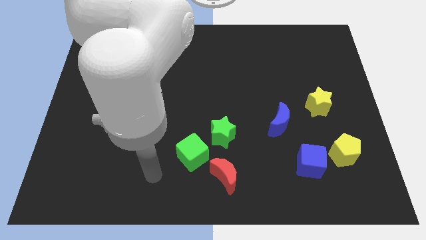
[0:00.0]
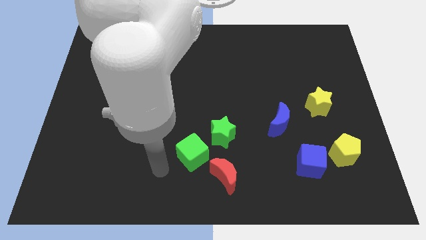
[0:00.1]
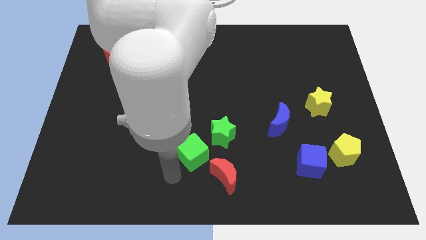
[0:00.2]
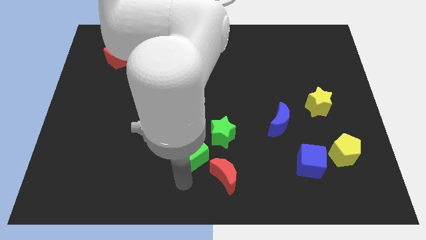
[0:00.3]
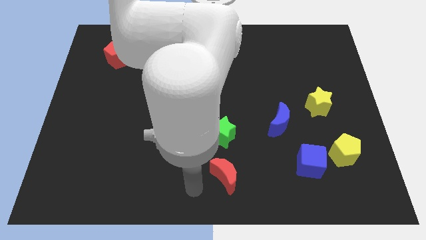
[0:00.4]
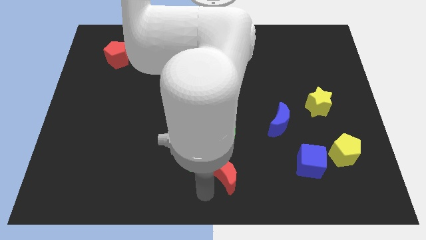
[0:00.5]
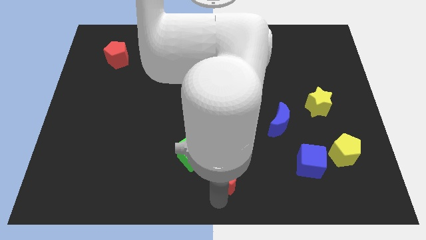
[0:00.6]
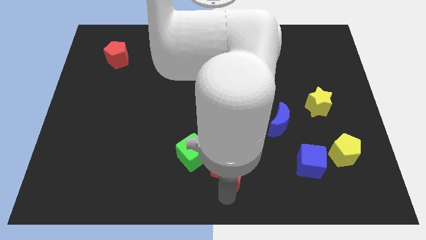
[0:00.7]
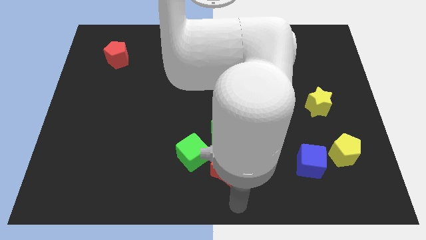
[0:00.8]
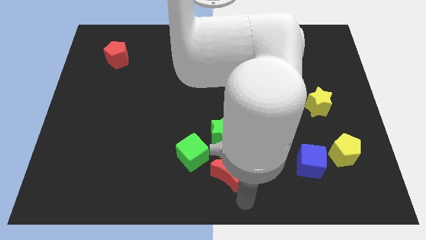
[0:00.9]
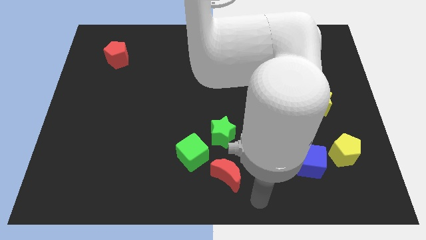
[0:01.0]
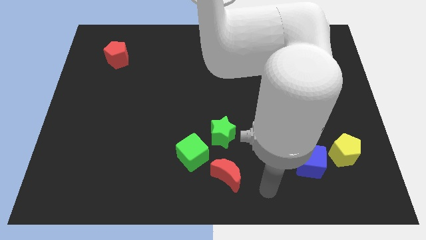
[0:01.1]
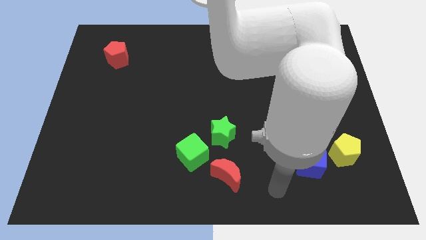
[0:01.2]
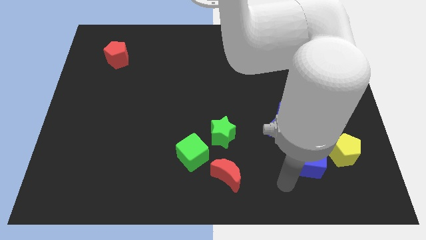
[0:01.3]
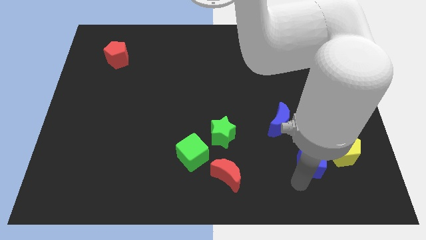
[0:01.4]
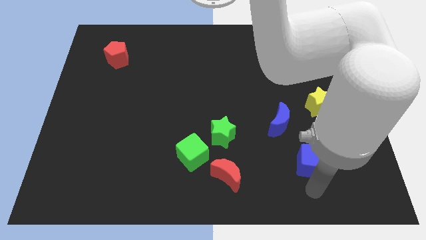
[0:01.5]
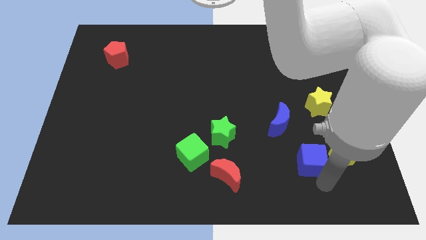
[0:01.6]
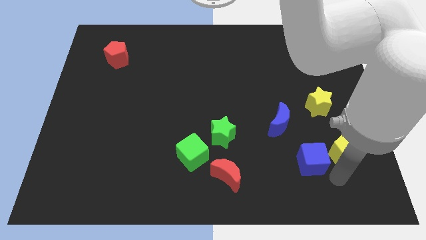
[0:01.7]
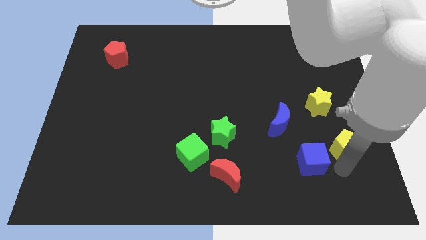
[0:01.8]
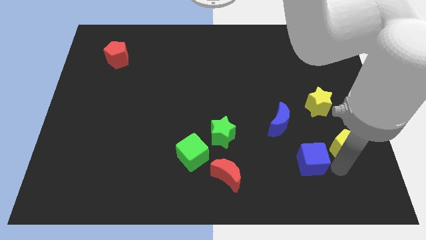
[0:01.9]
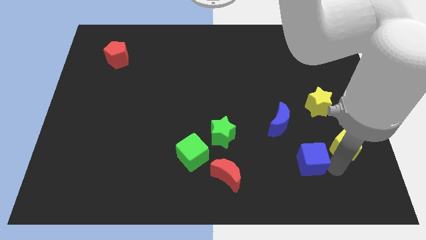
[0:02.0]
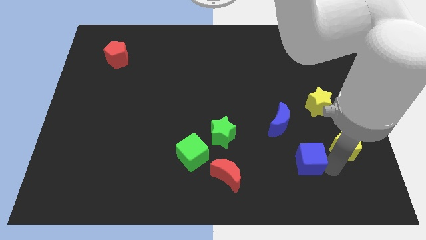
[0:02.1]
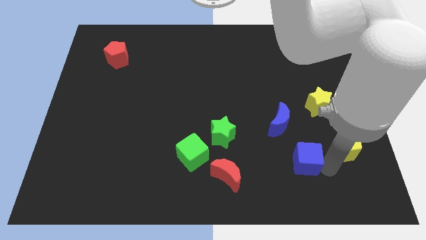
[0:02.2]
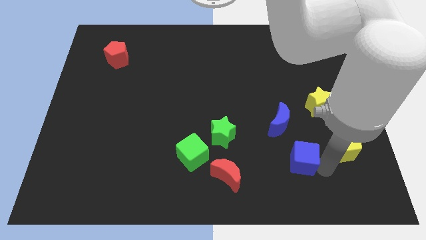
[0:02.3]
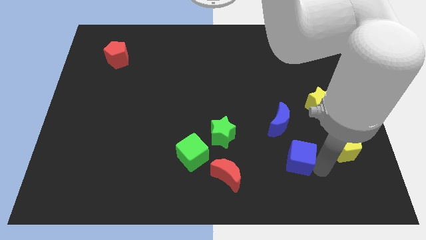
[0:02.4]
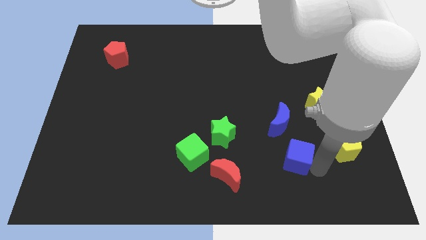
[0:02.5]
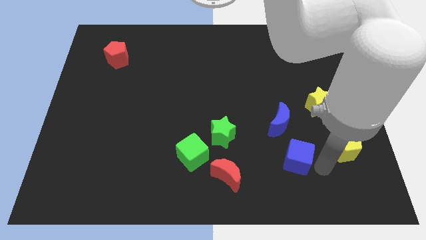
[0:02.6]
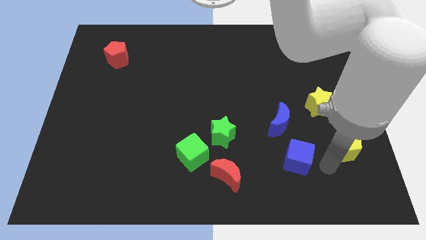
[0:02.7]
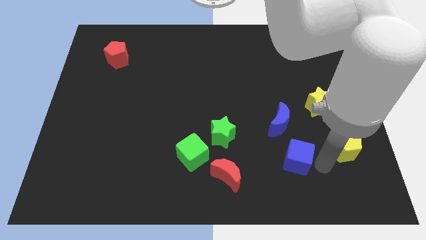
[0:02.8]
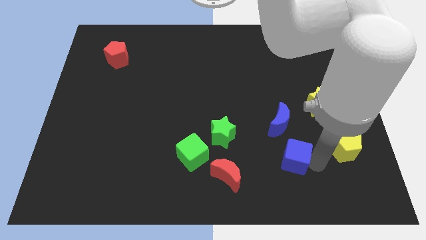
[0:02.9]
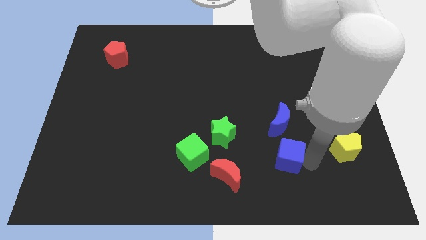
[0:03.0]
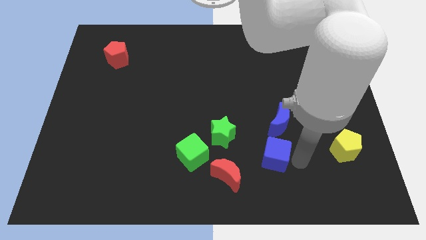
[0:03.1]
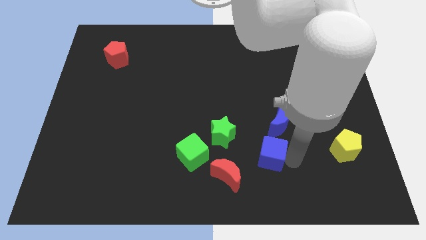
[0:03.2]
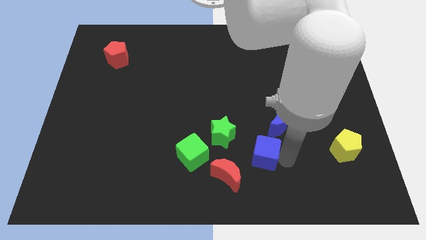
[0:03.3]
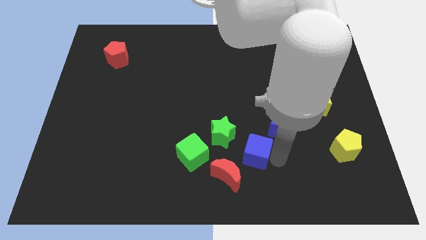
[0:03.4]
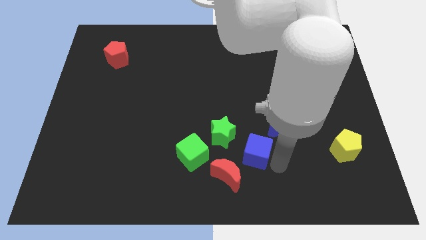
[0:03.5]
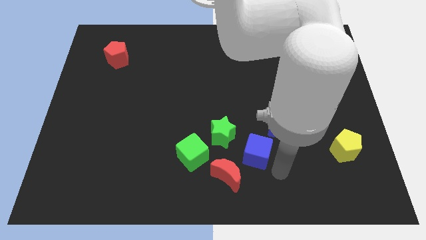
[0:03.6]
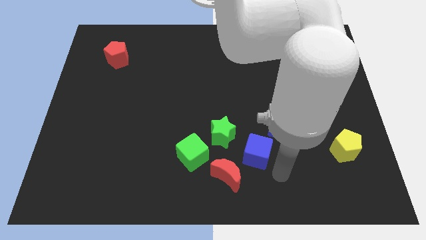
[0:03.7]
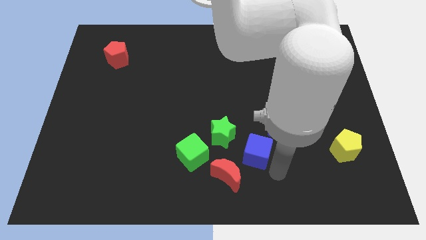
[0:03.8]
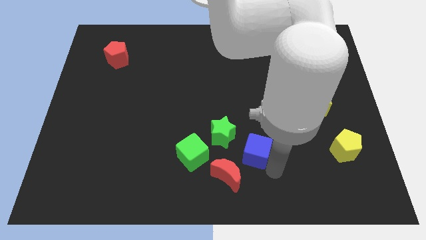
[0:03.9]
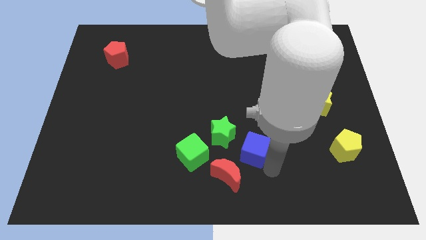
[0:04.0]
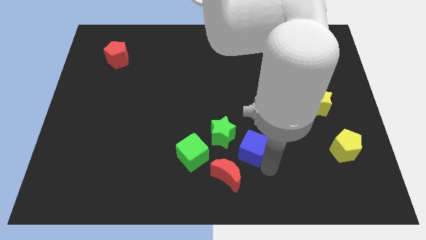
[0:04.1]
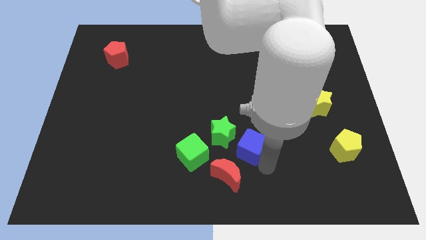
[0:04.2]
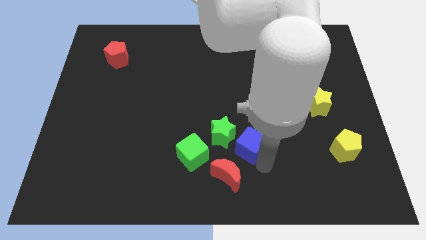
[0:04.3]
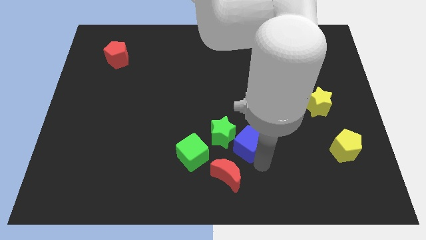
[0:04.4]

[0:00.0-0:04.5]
put the blue cube next to the green star

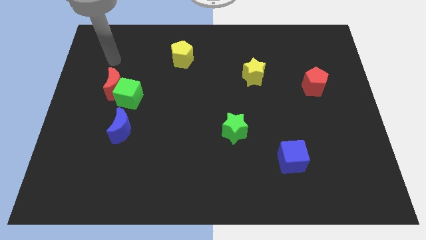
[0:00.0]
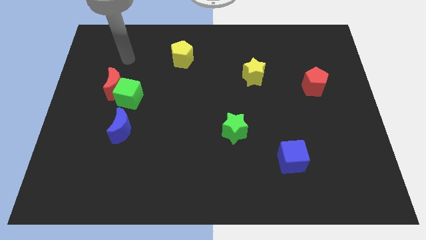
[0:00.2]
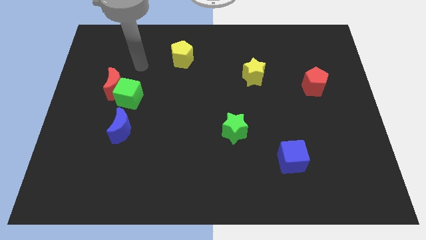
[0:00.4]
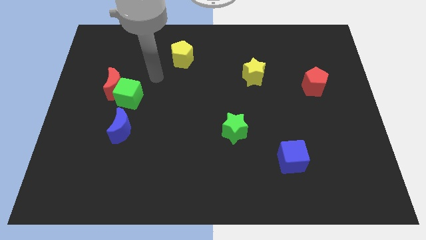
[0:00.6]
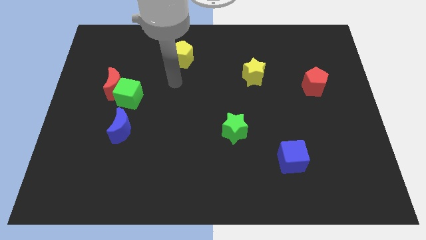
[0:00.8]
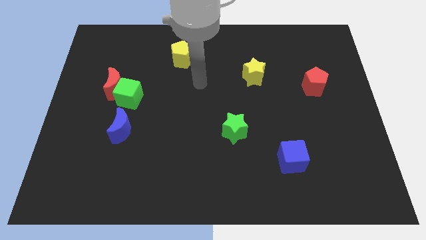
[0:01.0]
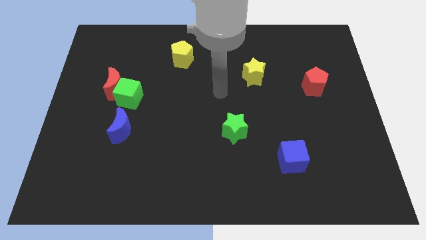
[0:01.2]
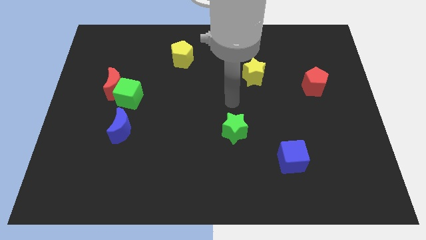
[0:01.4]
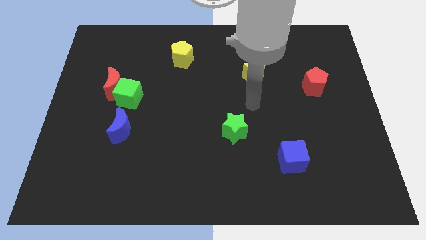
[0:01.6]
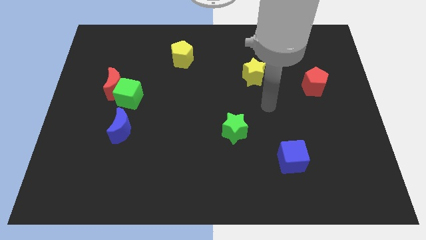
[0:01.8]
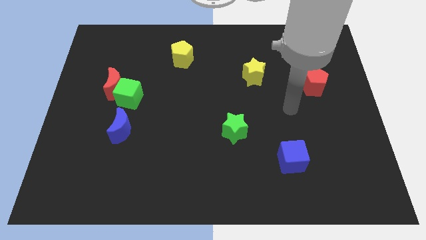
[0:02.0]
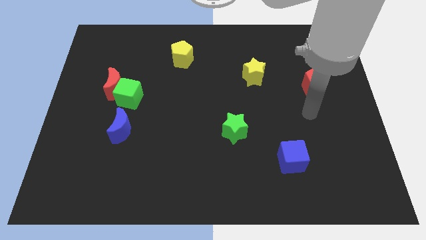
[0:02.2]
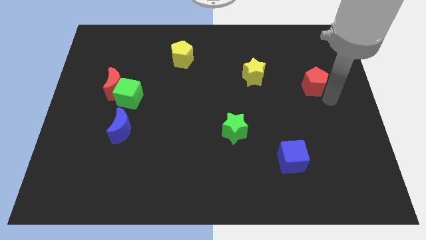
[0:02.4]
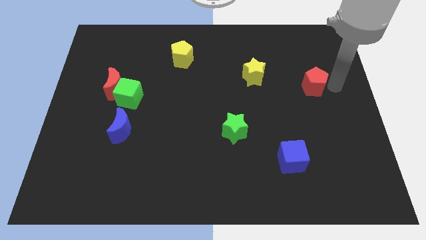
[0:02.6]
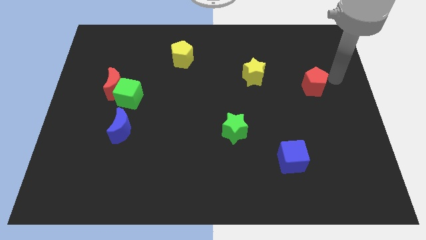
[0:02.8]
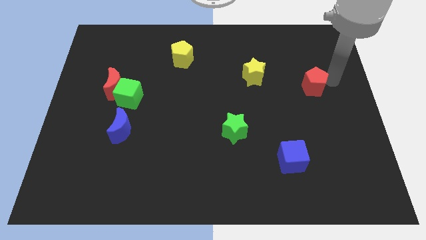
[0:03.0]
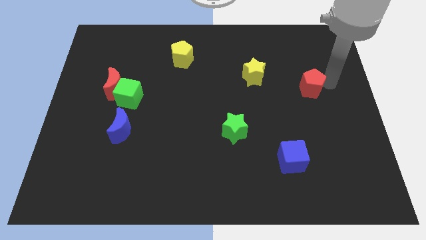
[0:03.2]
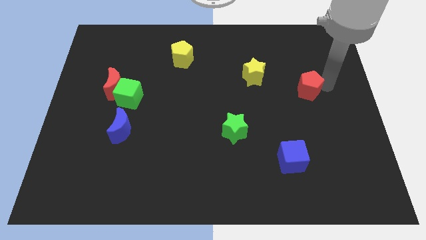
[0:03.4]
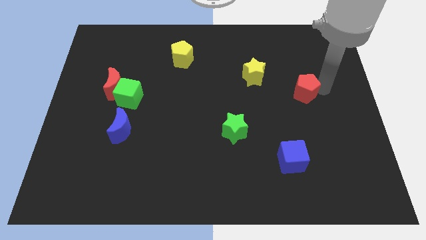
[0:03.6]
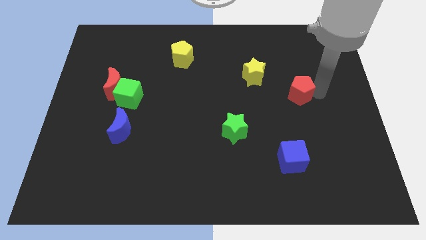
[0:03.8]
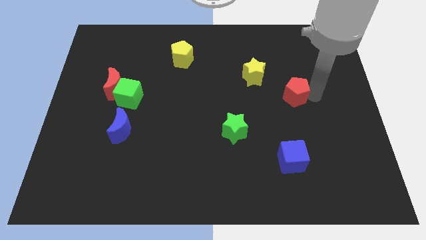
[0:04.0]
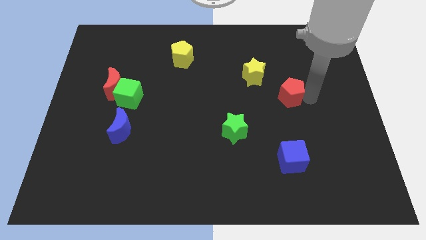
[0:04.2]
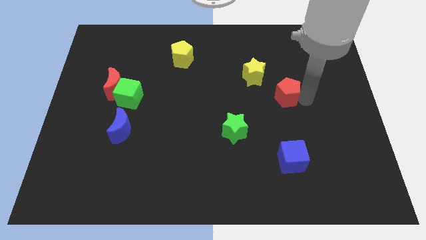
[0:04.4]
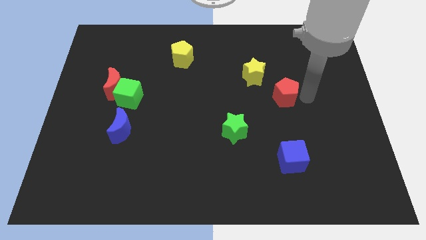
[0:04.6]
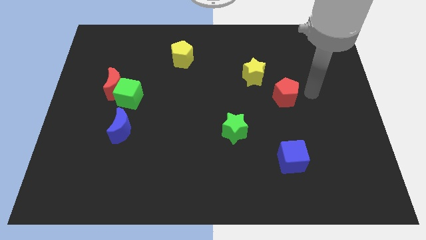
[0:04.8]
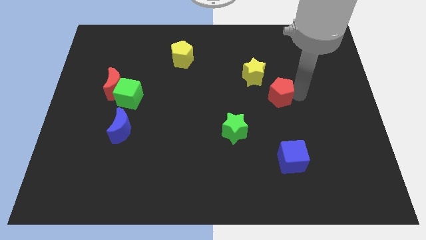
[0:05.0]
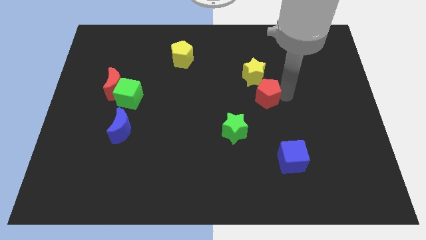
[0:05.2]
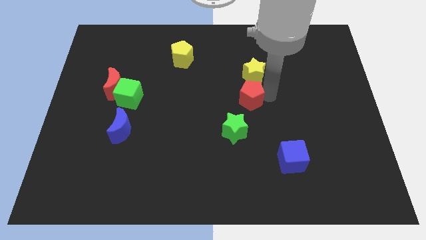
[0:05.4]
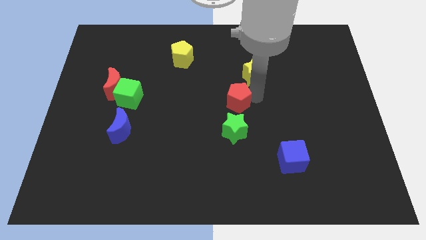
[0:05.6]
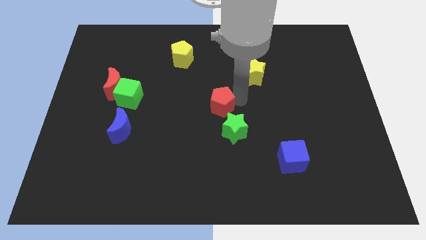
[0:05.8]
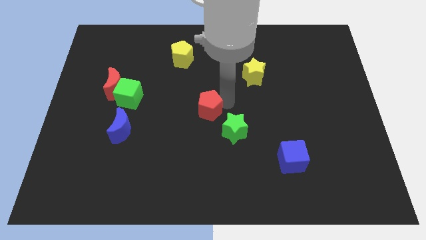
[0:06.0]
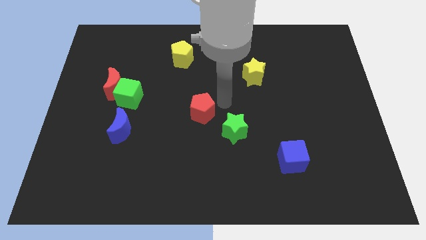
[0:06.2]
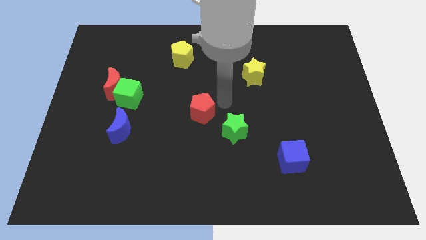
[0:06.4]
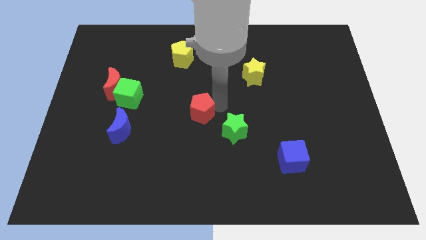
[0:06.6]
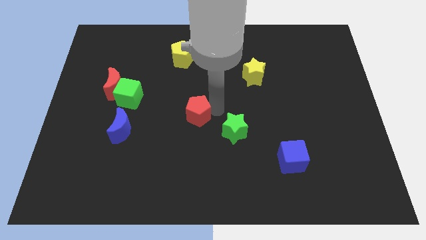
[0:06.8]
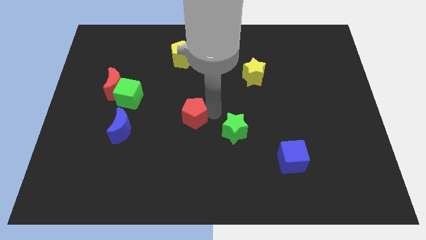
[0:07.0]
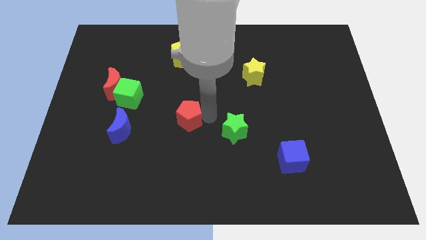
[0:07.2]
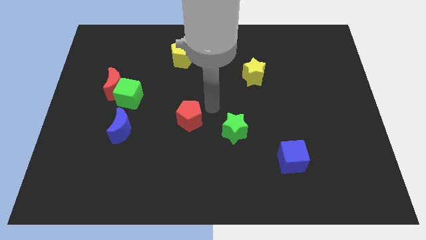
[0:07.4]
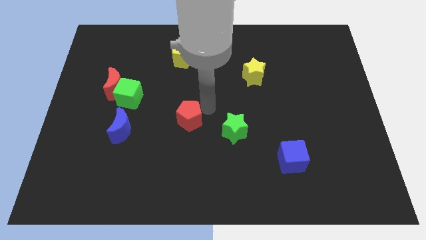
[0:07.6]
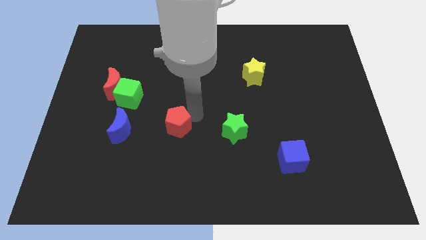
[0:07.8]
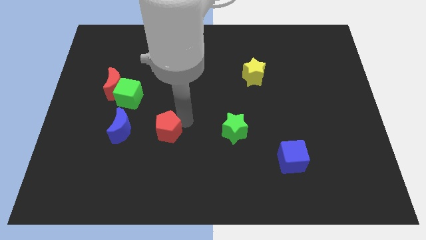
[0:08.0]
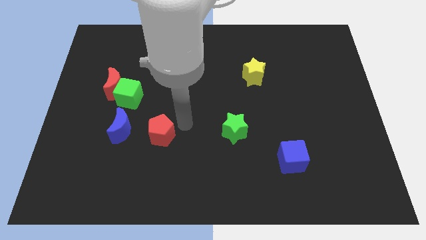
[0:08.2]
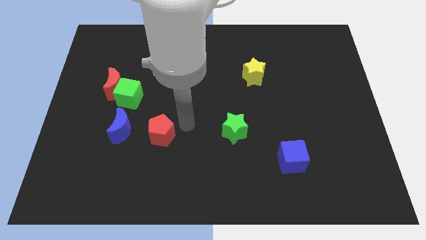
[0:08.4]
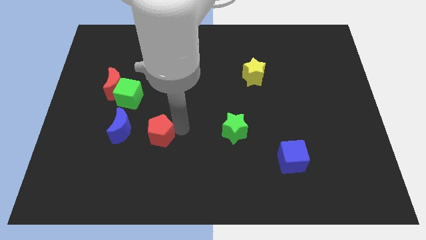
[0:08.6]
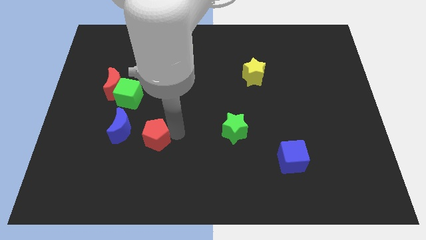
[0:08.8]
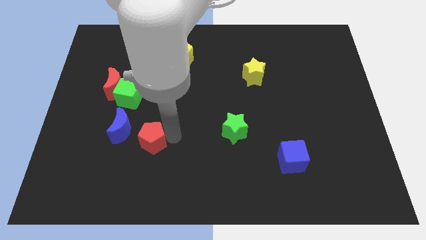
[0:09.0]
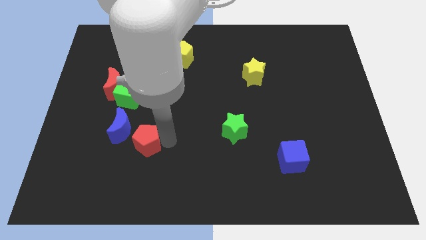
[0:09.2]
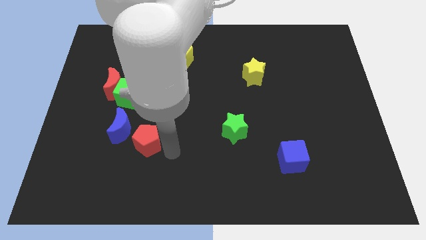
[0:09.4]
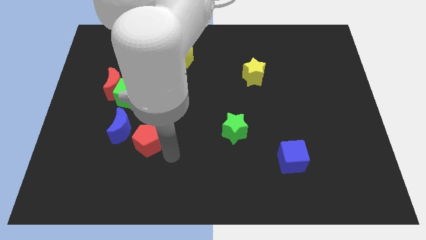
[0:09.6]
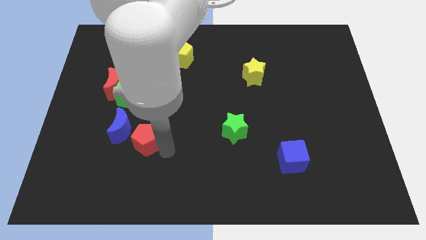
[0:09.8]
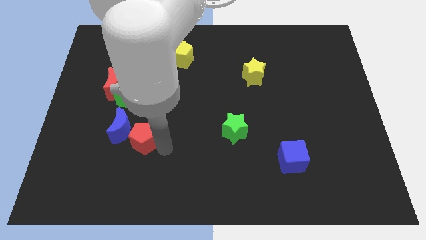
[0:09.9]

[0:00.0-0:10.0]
push the red pentagon close to the blue moon
